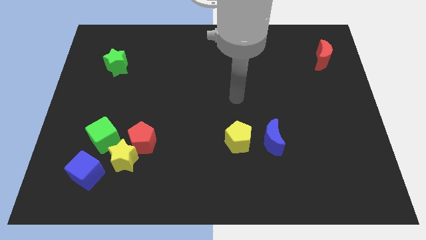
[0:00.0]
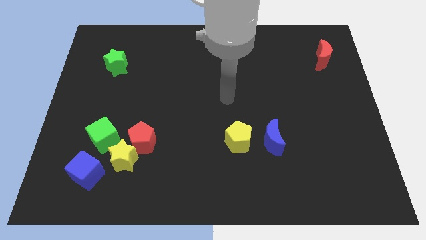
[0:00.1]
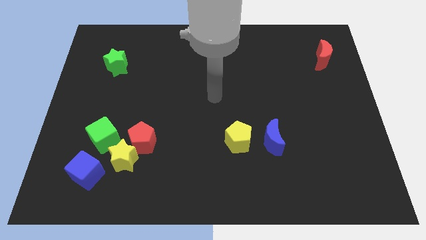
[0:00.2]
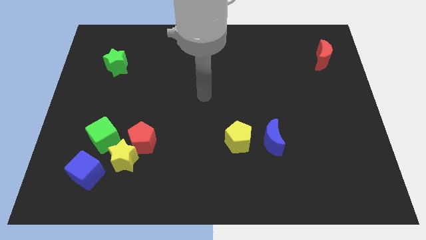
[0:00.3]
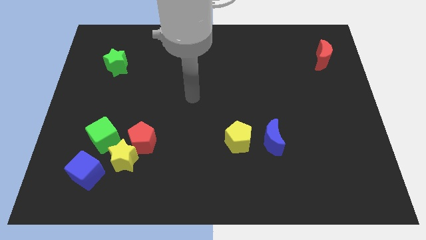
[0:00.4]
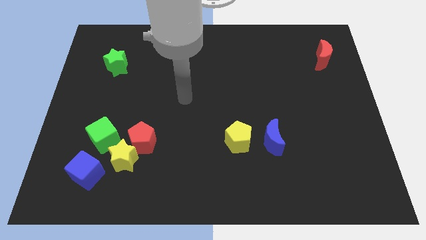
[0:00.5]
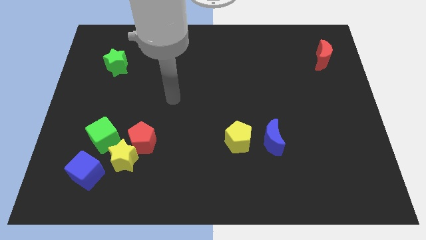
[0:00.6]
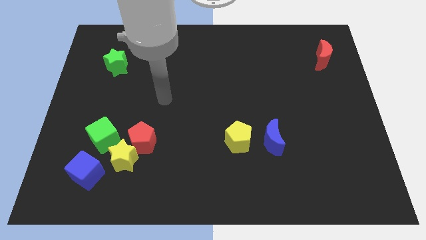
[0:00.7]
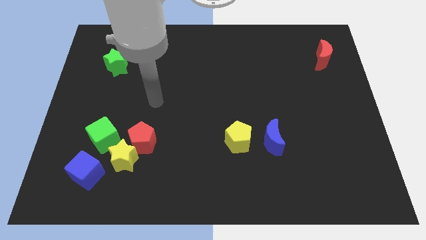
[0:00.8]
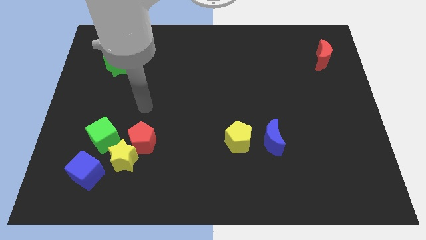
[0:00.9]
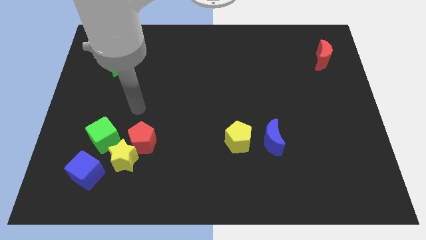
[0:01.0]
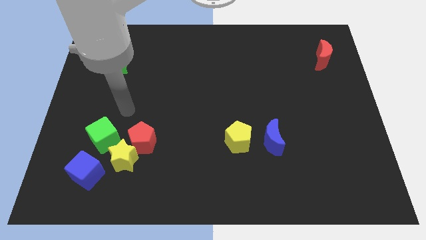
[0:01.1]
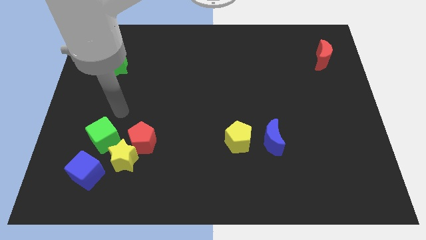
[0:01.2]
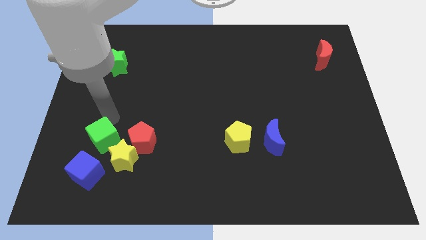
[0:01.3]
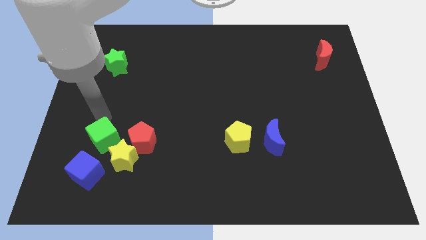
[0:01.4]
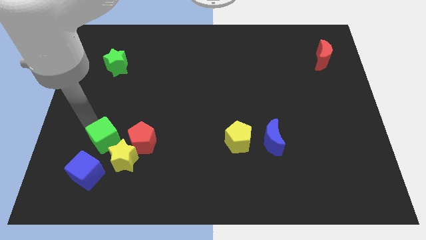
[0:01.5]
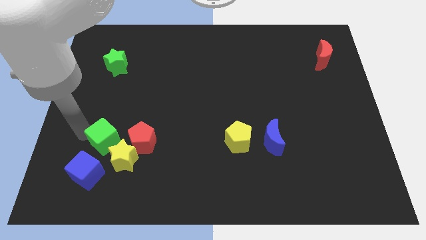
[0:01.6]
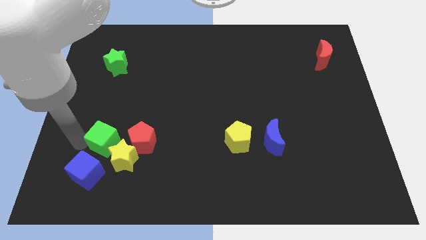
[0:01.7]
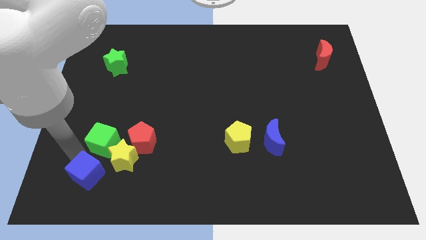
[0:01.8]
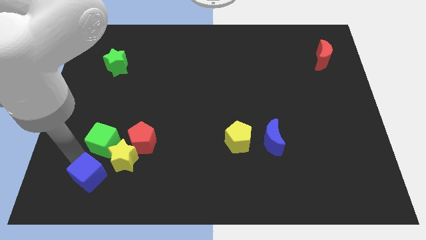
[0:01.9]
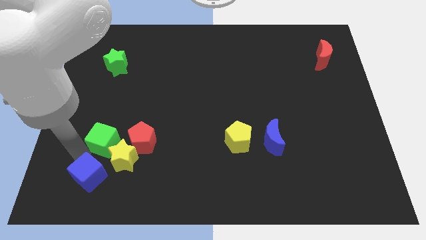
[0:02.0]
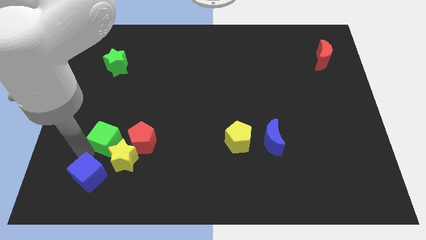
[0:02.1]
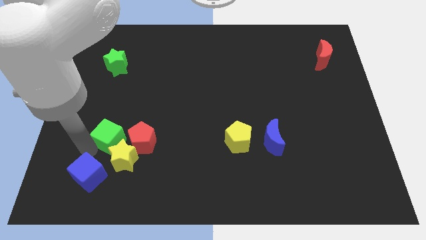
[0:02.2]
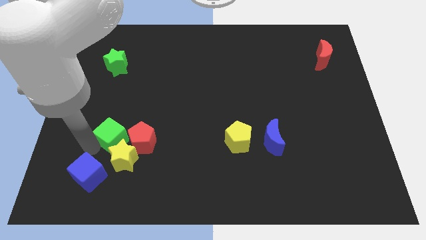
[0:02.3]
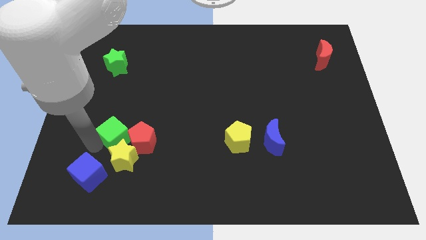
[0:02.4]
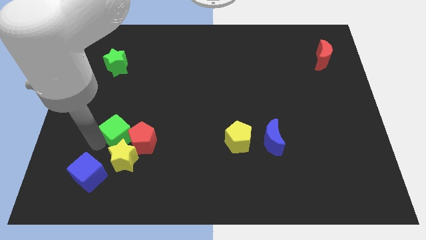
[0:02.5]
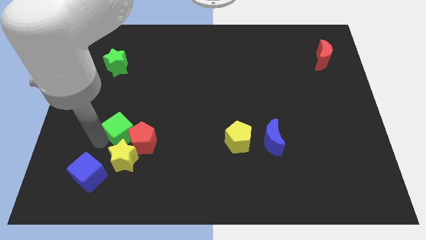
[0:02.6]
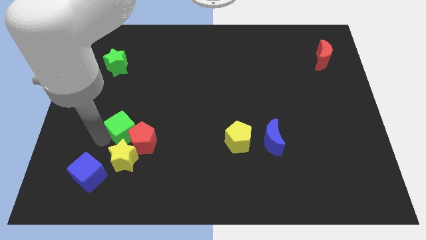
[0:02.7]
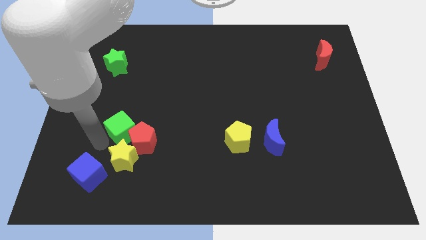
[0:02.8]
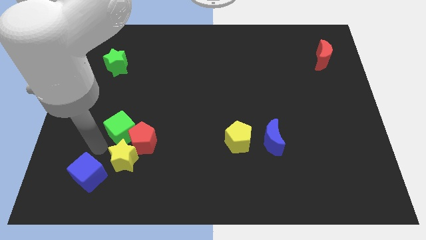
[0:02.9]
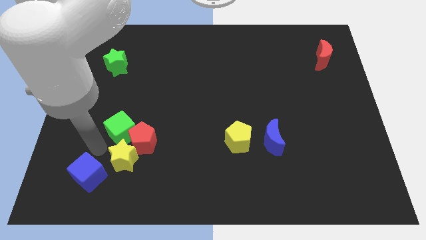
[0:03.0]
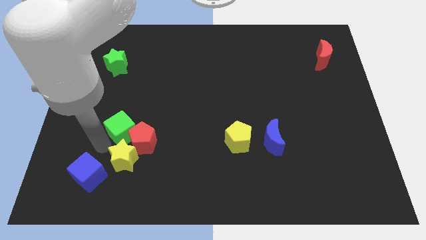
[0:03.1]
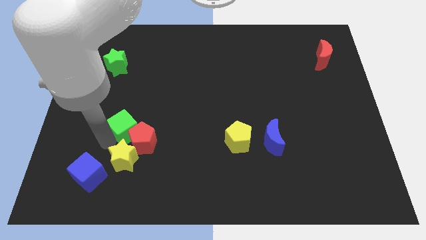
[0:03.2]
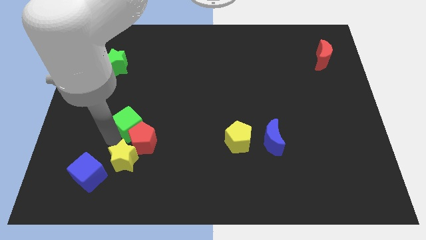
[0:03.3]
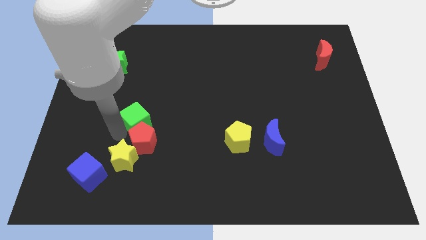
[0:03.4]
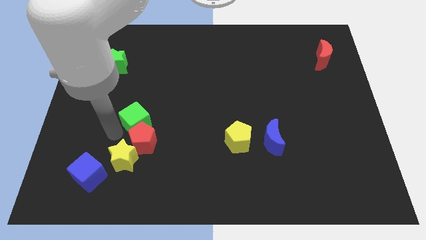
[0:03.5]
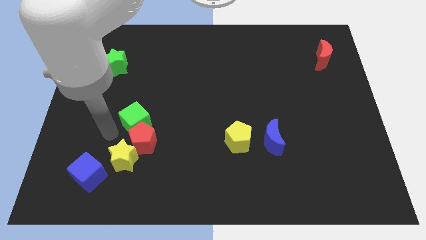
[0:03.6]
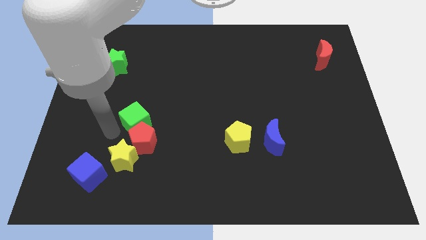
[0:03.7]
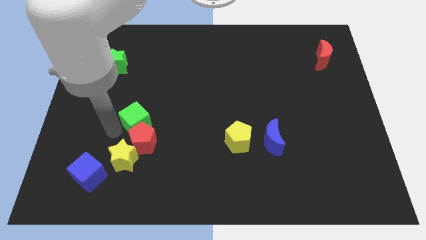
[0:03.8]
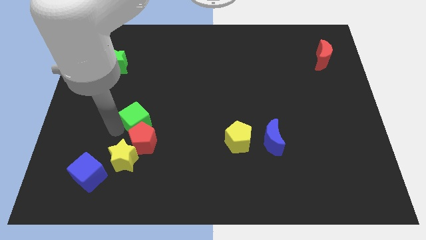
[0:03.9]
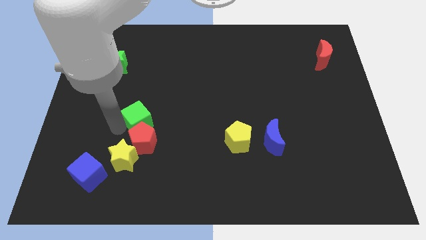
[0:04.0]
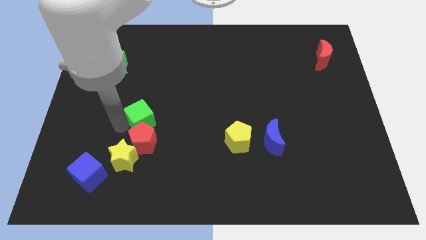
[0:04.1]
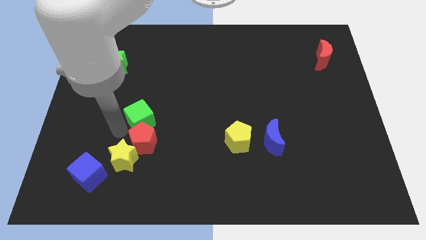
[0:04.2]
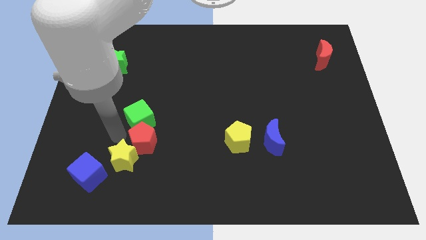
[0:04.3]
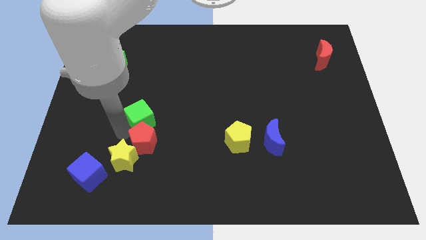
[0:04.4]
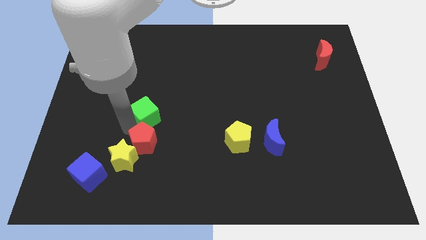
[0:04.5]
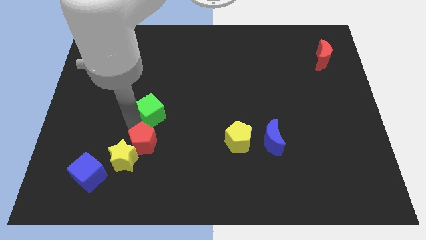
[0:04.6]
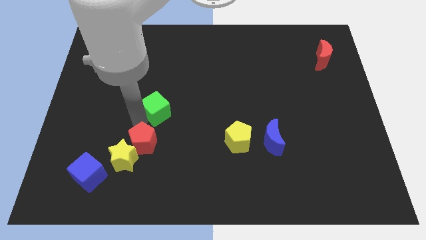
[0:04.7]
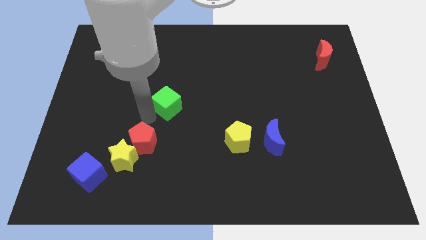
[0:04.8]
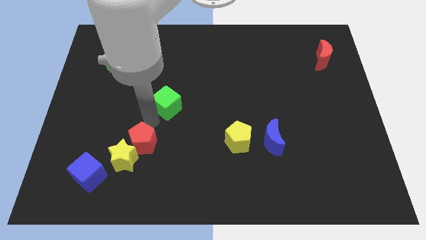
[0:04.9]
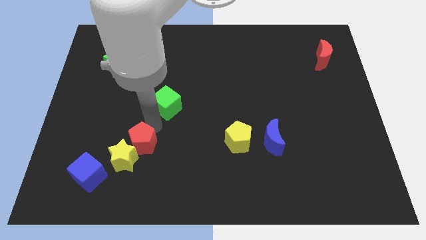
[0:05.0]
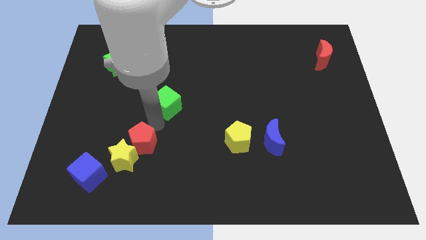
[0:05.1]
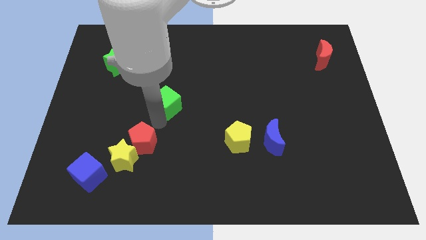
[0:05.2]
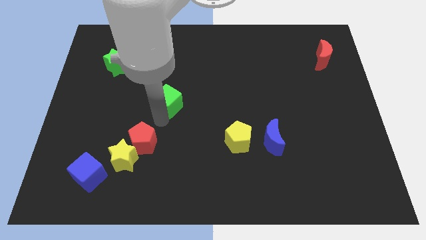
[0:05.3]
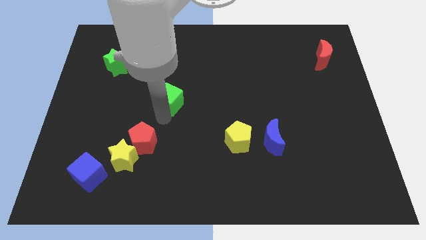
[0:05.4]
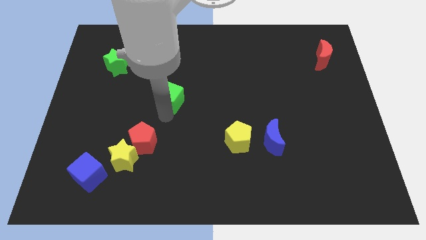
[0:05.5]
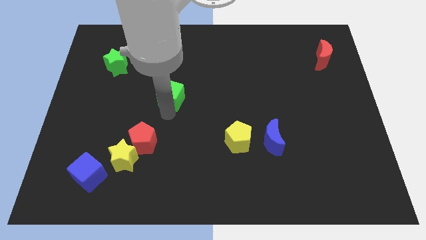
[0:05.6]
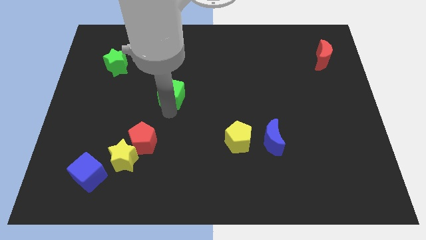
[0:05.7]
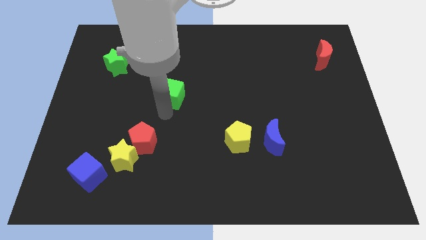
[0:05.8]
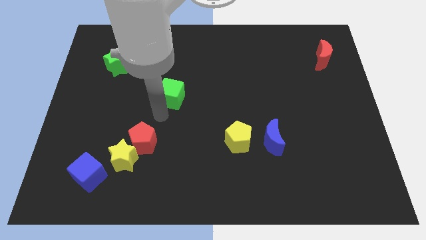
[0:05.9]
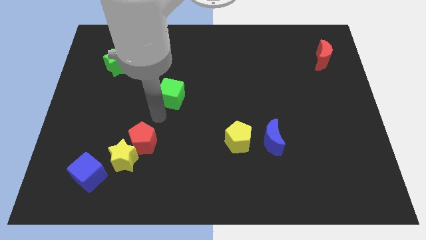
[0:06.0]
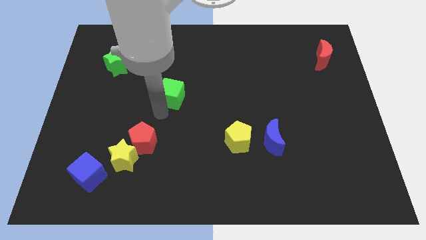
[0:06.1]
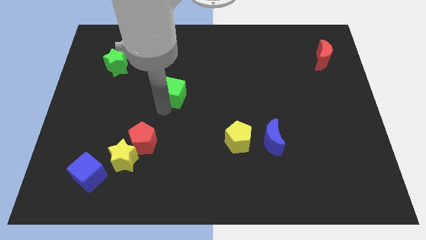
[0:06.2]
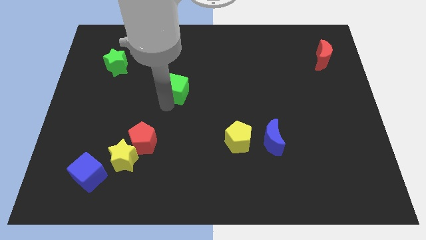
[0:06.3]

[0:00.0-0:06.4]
slide the green cube upwards and to the right diagonally

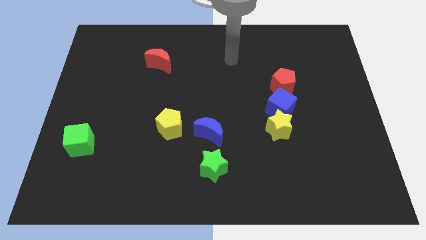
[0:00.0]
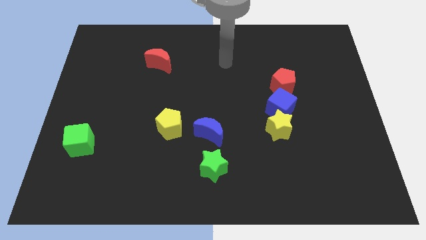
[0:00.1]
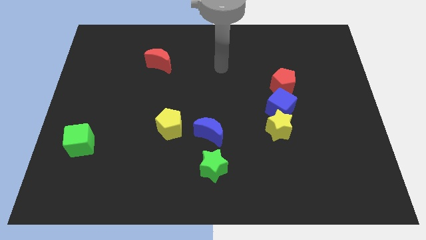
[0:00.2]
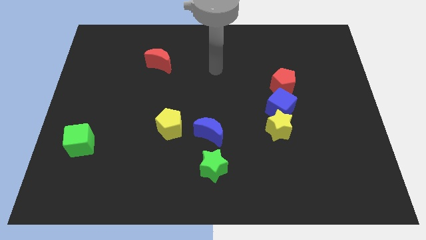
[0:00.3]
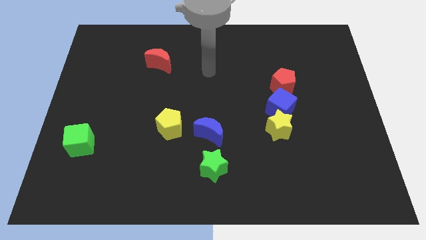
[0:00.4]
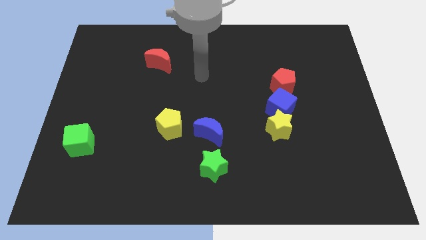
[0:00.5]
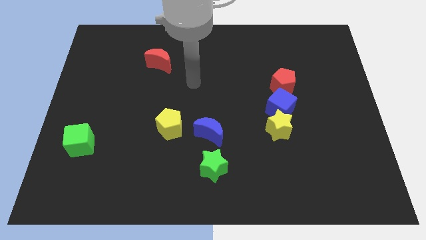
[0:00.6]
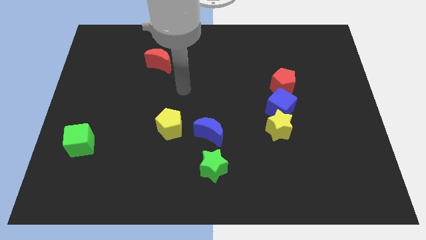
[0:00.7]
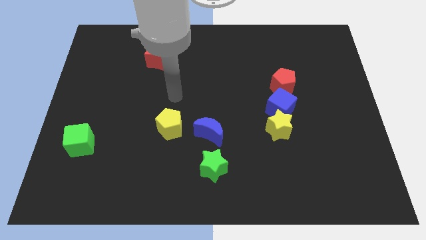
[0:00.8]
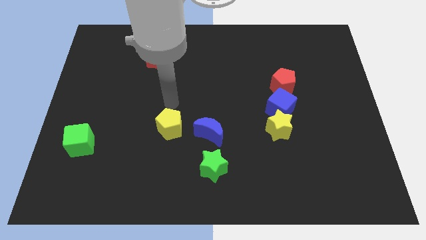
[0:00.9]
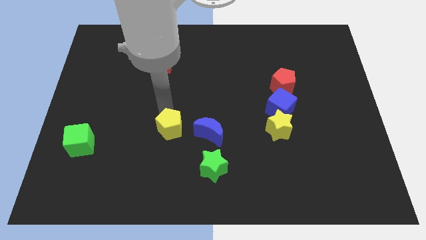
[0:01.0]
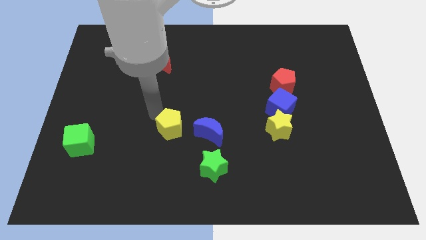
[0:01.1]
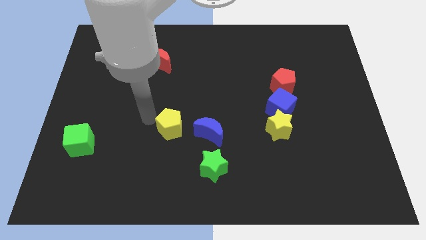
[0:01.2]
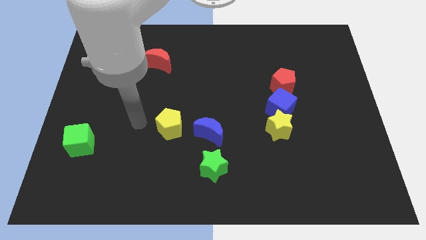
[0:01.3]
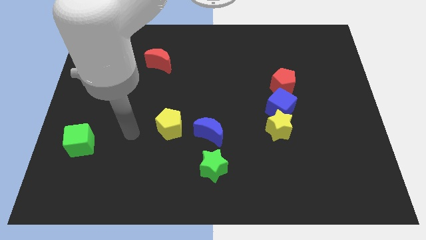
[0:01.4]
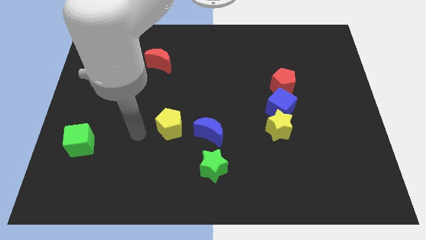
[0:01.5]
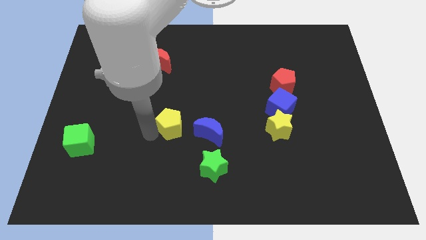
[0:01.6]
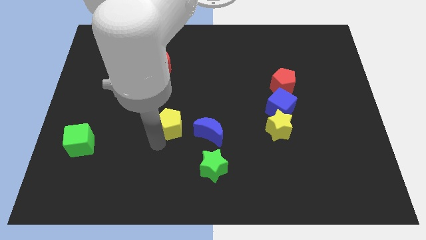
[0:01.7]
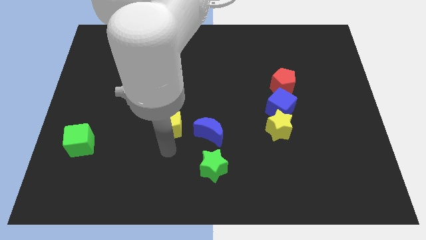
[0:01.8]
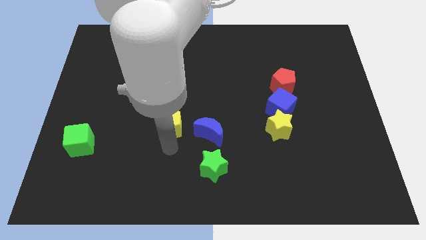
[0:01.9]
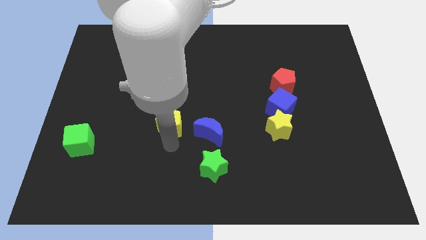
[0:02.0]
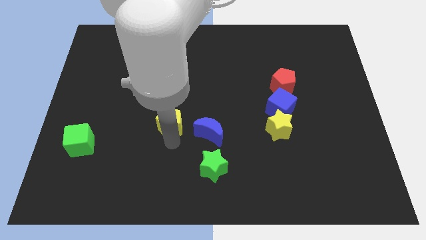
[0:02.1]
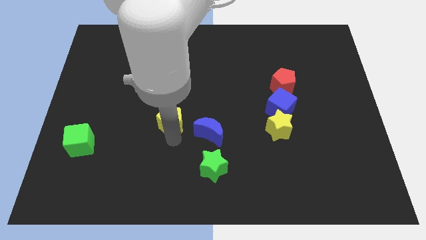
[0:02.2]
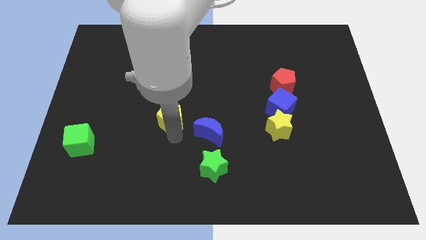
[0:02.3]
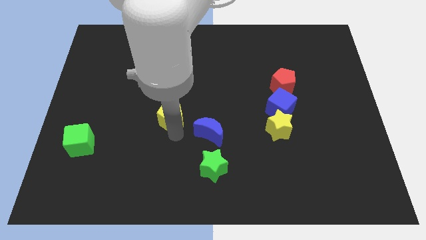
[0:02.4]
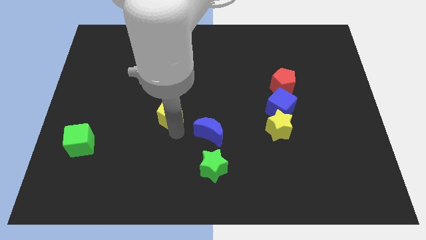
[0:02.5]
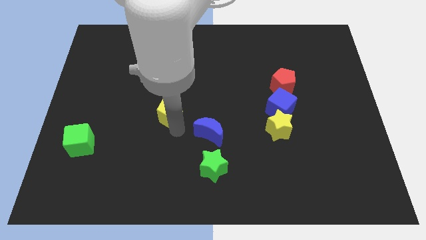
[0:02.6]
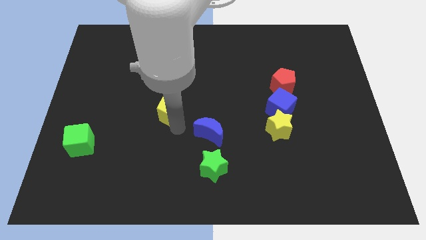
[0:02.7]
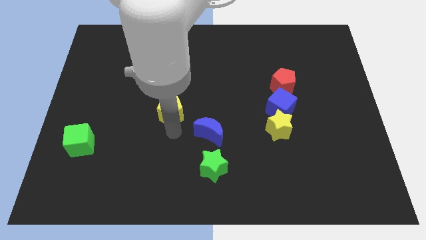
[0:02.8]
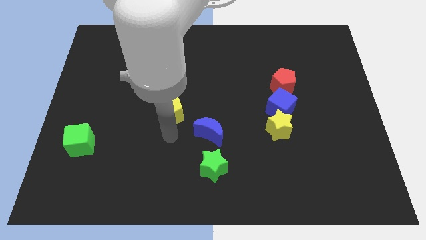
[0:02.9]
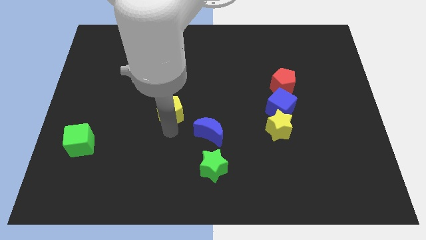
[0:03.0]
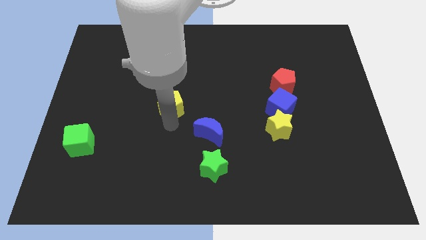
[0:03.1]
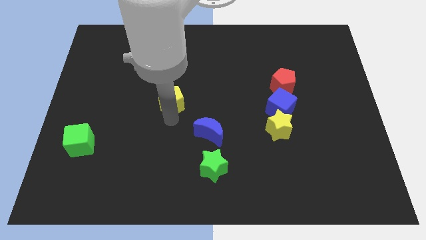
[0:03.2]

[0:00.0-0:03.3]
slightly push the yellow pentagon up
